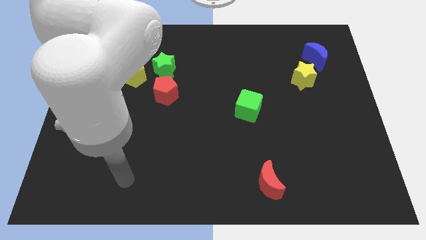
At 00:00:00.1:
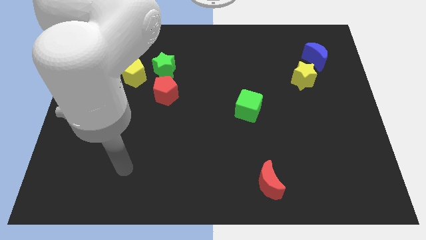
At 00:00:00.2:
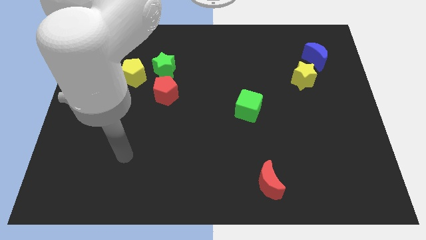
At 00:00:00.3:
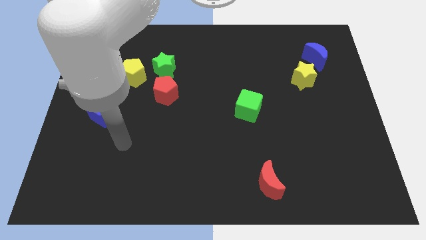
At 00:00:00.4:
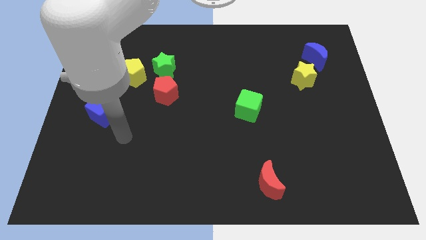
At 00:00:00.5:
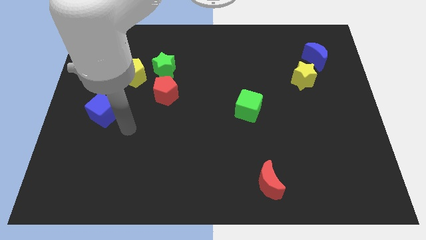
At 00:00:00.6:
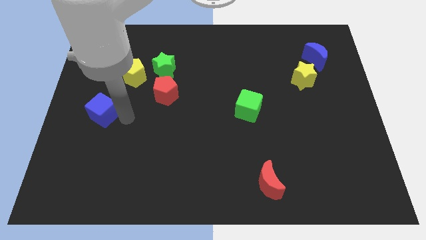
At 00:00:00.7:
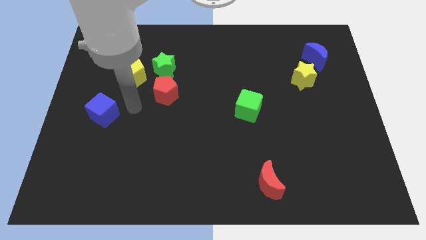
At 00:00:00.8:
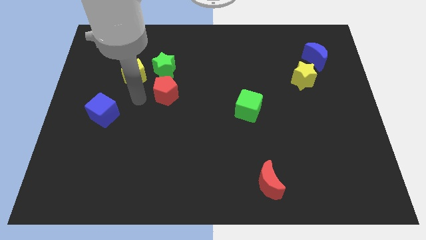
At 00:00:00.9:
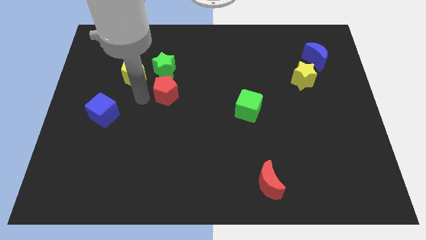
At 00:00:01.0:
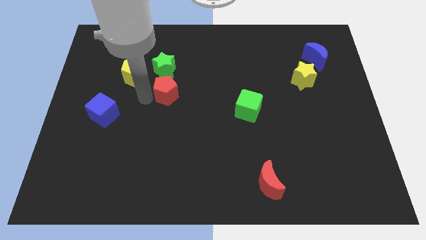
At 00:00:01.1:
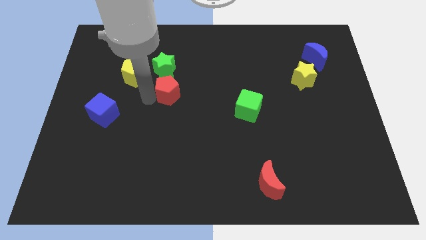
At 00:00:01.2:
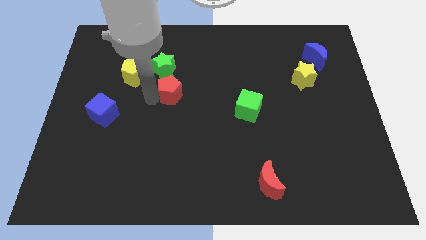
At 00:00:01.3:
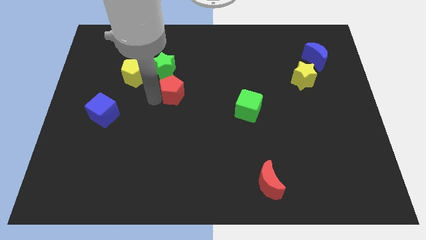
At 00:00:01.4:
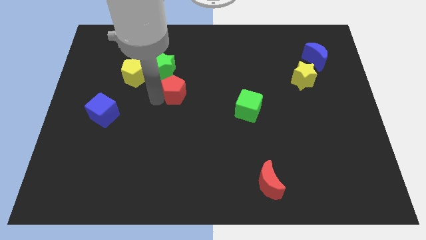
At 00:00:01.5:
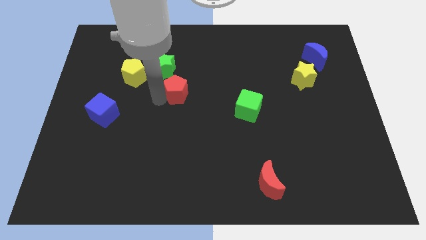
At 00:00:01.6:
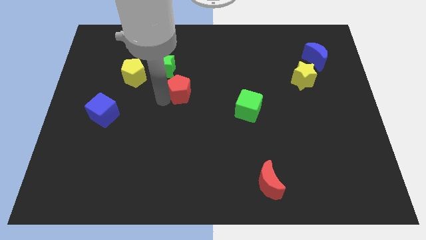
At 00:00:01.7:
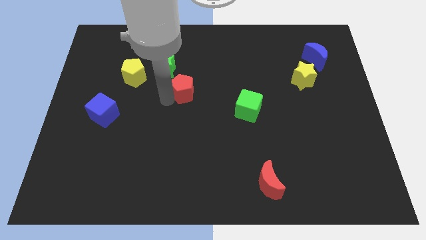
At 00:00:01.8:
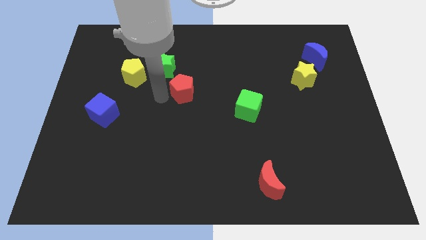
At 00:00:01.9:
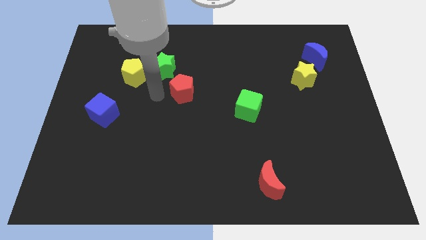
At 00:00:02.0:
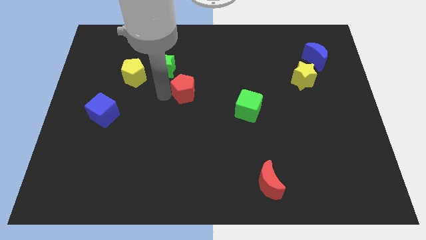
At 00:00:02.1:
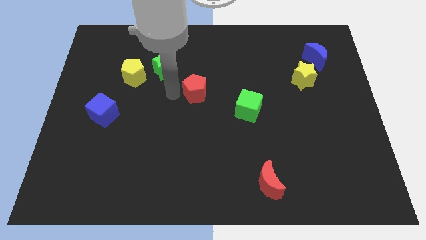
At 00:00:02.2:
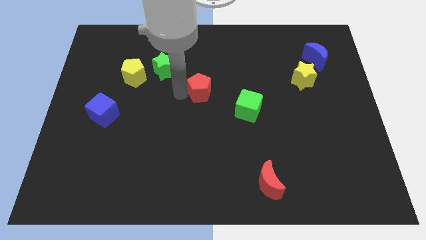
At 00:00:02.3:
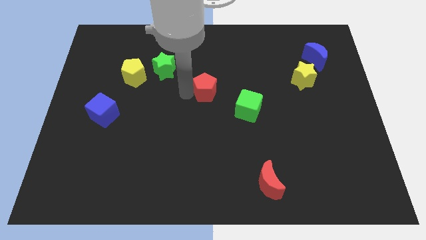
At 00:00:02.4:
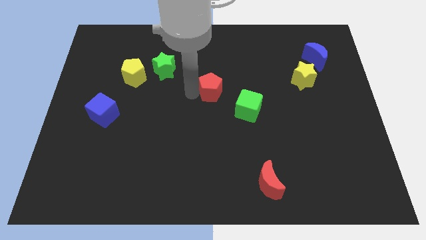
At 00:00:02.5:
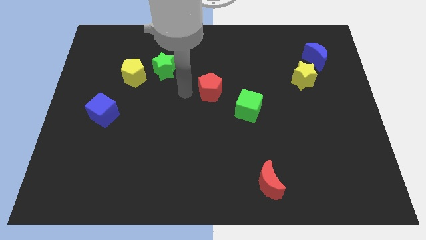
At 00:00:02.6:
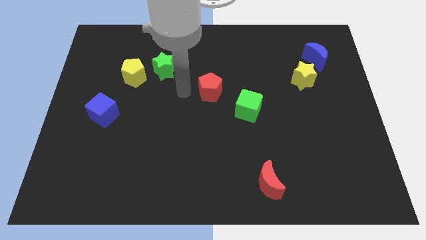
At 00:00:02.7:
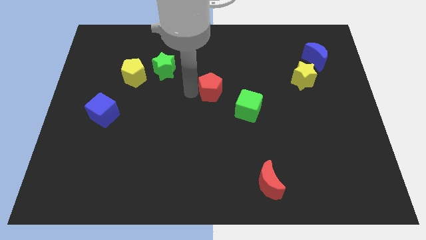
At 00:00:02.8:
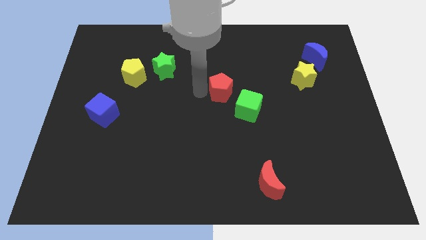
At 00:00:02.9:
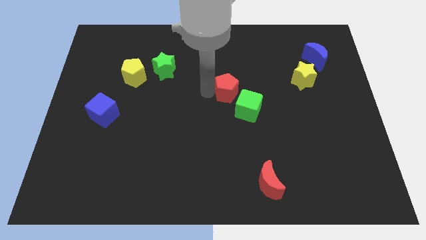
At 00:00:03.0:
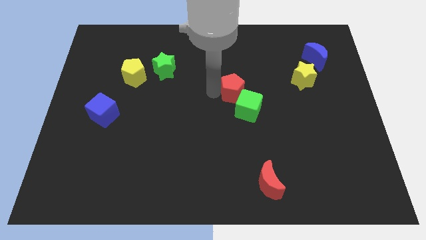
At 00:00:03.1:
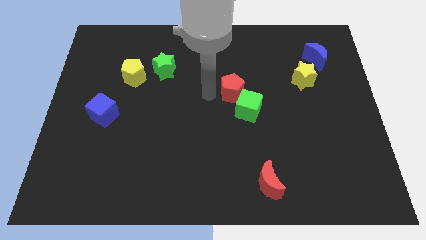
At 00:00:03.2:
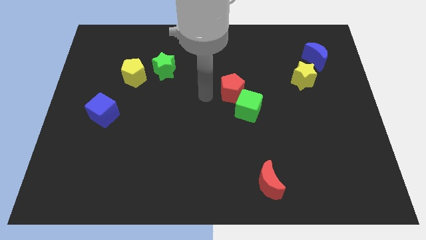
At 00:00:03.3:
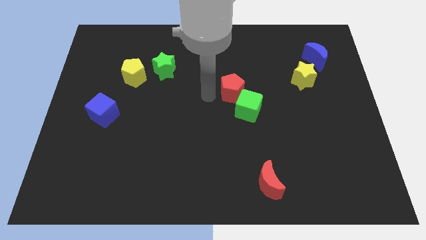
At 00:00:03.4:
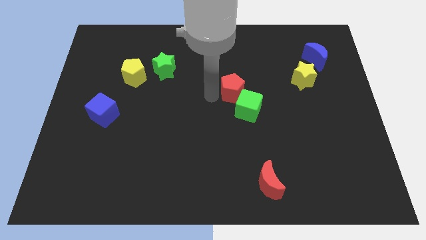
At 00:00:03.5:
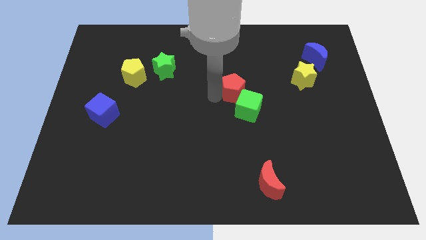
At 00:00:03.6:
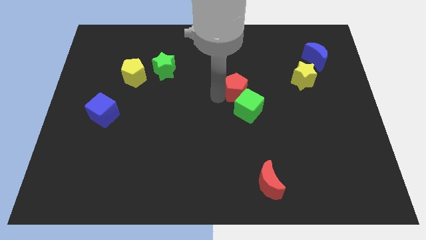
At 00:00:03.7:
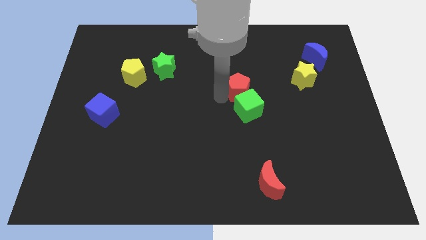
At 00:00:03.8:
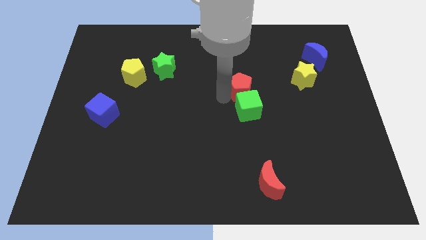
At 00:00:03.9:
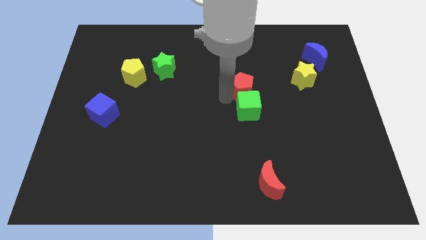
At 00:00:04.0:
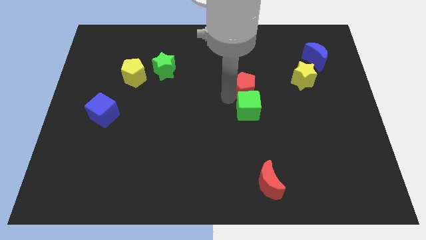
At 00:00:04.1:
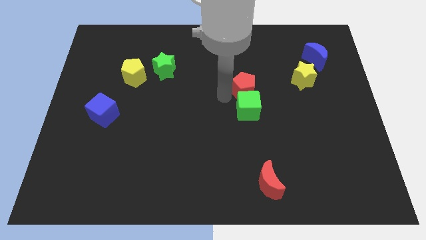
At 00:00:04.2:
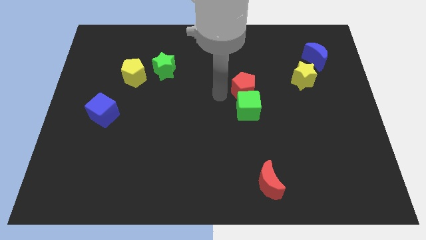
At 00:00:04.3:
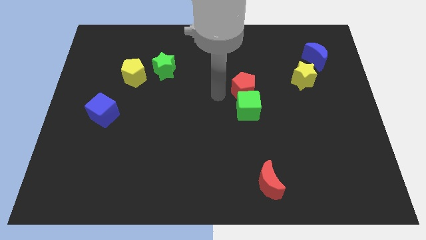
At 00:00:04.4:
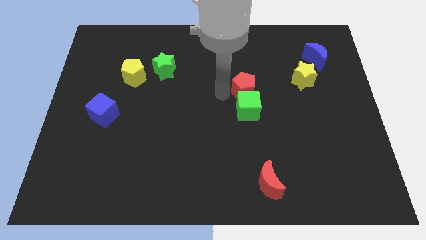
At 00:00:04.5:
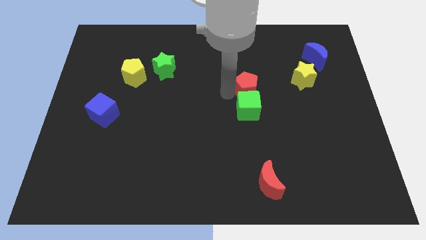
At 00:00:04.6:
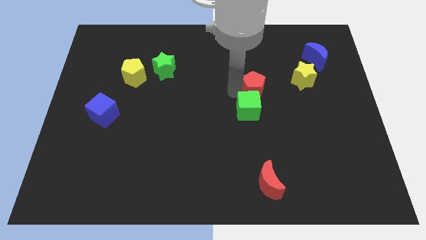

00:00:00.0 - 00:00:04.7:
push the red pentagon right

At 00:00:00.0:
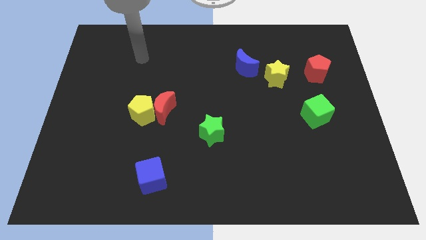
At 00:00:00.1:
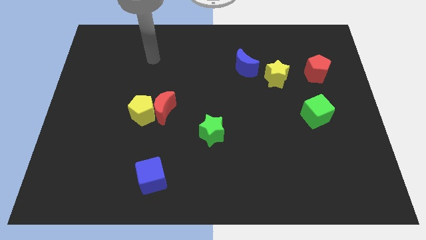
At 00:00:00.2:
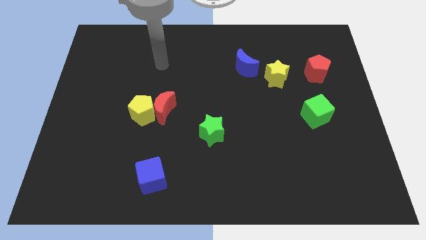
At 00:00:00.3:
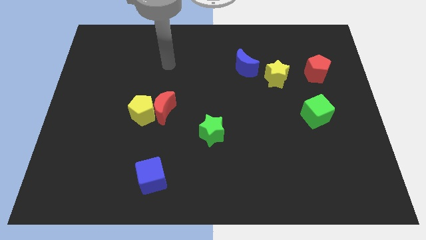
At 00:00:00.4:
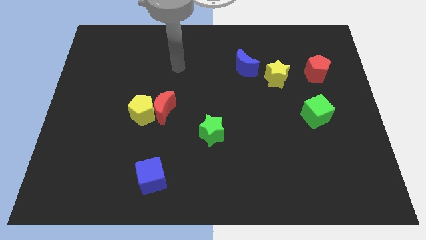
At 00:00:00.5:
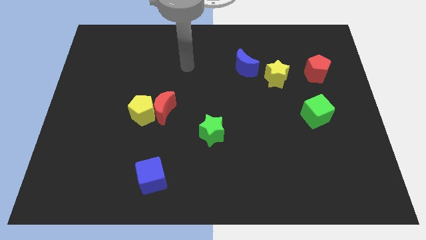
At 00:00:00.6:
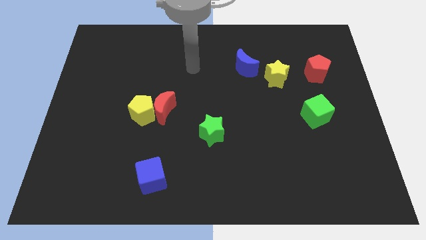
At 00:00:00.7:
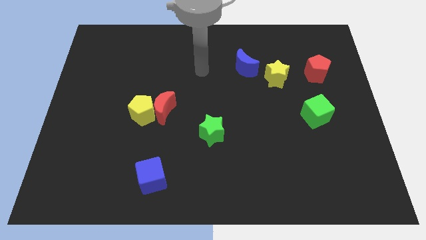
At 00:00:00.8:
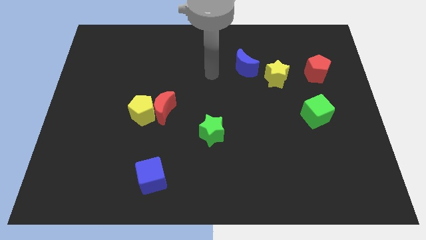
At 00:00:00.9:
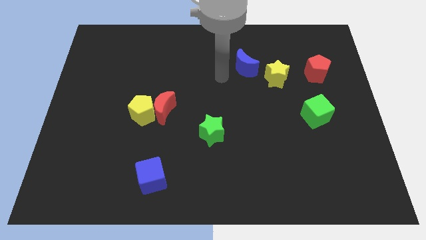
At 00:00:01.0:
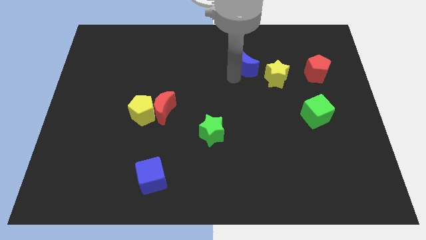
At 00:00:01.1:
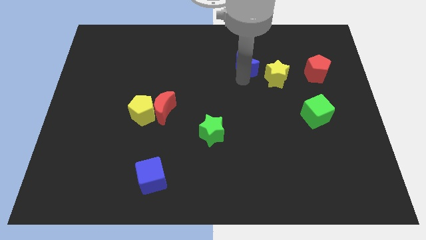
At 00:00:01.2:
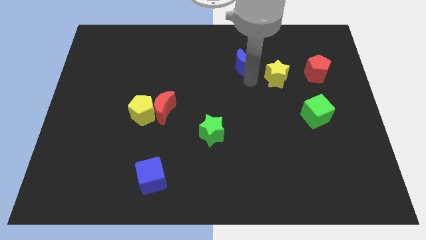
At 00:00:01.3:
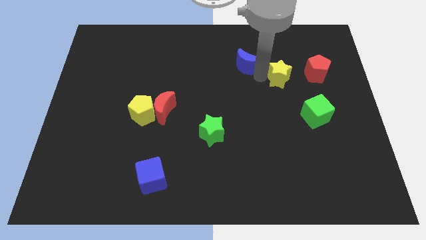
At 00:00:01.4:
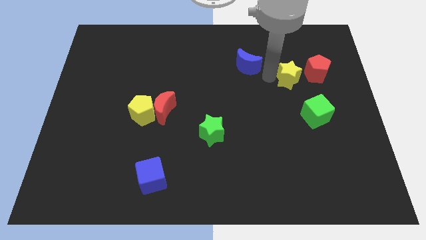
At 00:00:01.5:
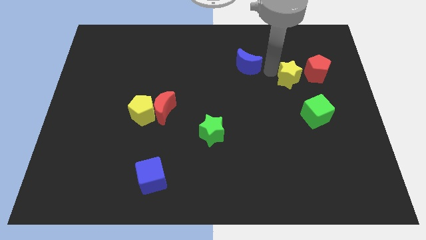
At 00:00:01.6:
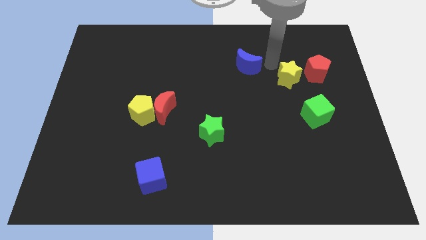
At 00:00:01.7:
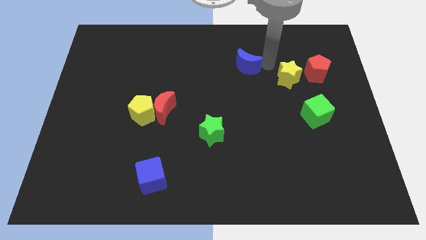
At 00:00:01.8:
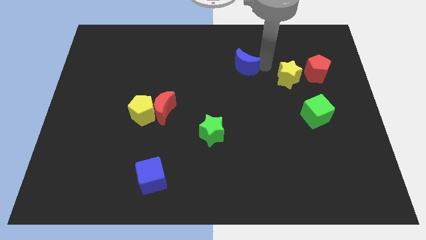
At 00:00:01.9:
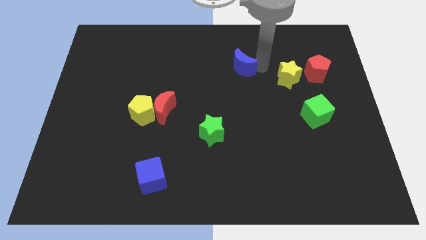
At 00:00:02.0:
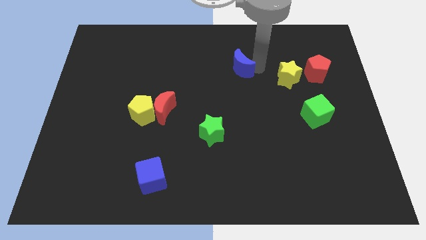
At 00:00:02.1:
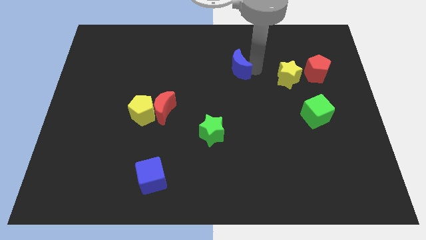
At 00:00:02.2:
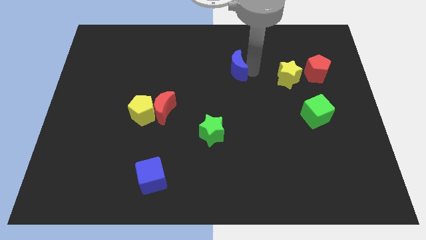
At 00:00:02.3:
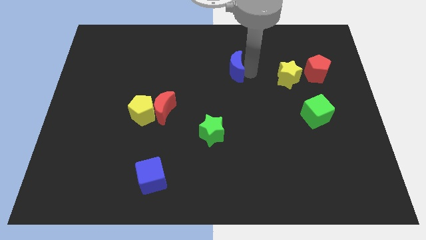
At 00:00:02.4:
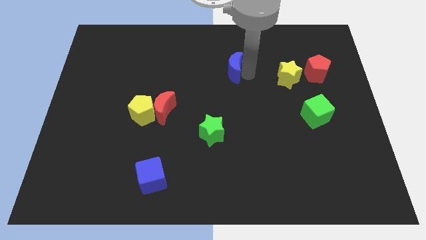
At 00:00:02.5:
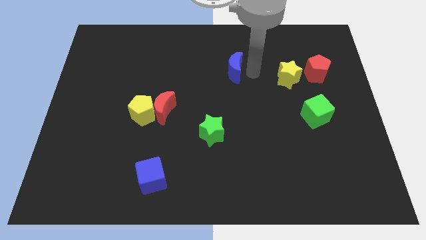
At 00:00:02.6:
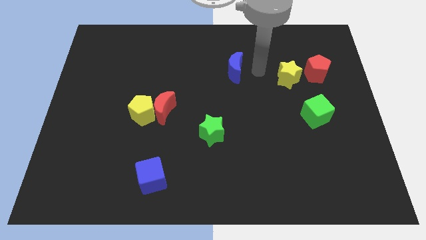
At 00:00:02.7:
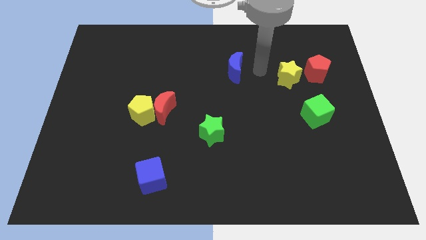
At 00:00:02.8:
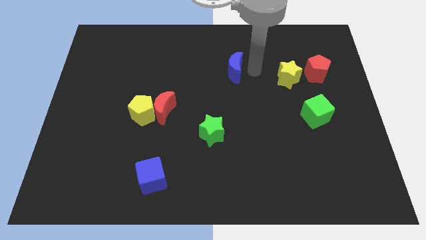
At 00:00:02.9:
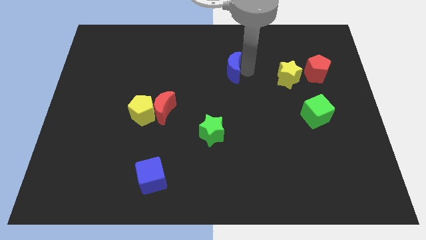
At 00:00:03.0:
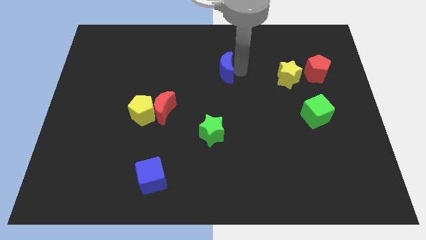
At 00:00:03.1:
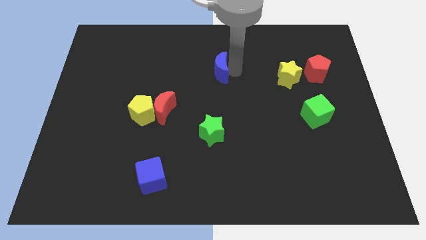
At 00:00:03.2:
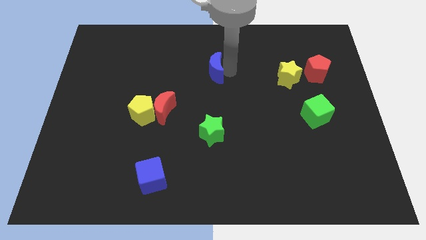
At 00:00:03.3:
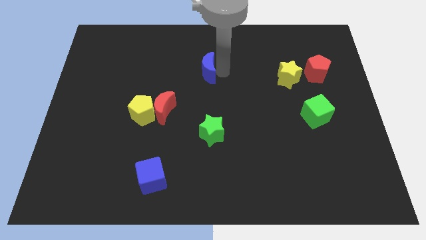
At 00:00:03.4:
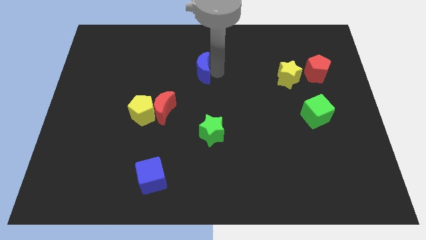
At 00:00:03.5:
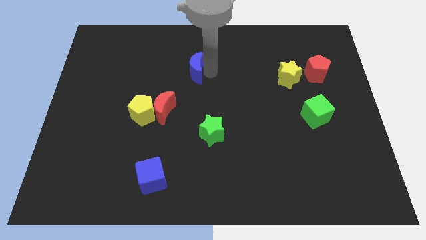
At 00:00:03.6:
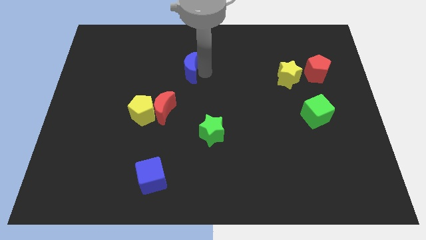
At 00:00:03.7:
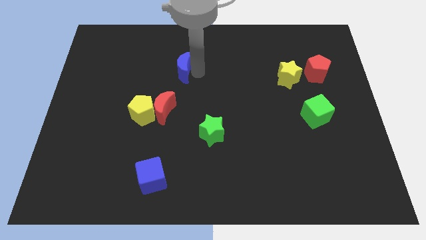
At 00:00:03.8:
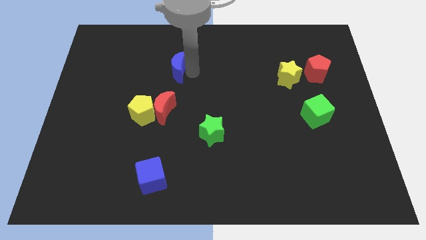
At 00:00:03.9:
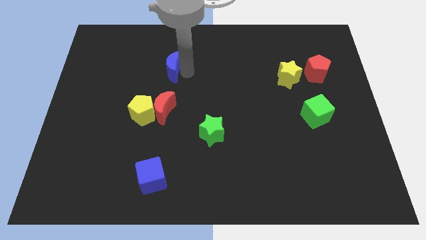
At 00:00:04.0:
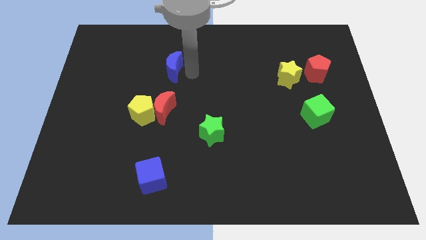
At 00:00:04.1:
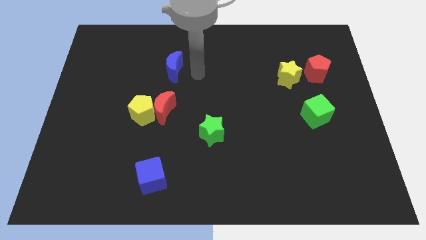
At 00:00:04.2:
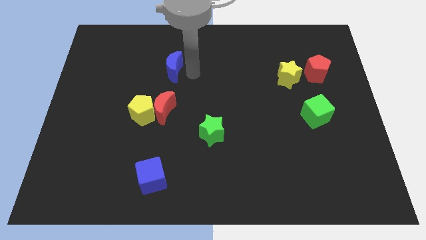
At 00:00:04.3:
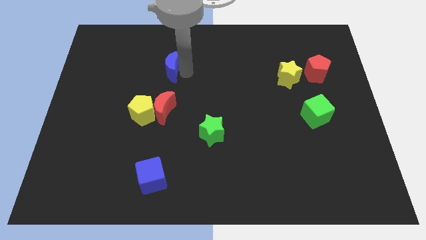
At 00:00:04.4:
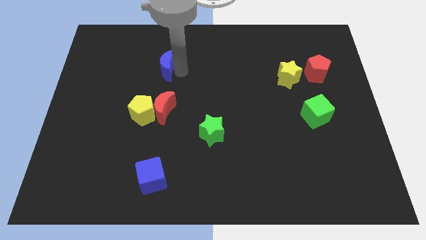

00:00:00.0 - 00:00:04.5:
move the blue moon left
